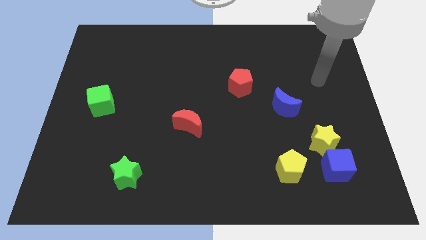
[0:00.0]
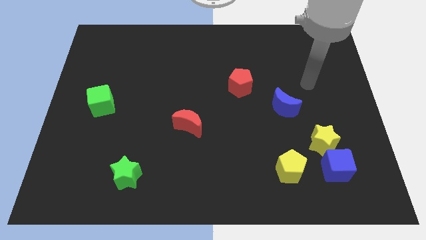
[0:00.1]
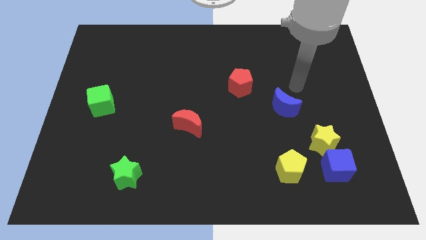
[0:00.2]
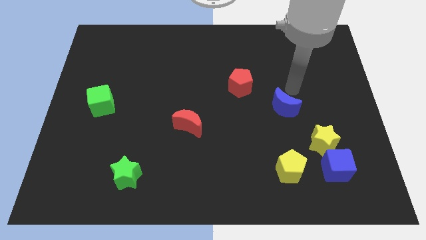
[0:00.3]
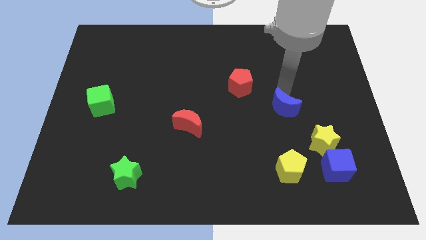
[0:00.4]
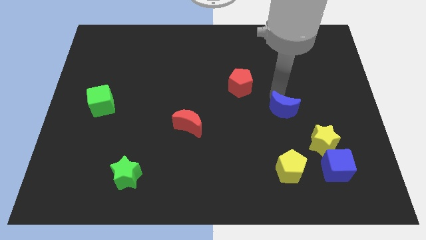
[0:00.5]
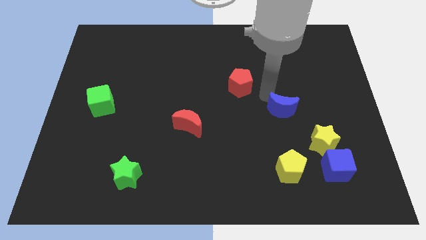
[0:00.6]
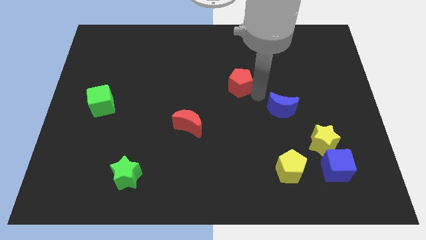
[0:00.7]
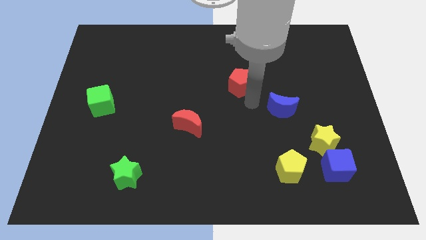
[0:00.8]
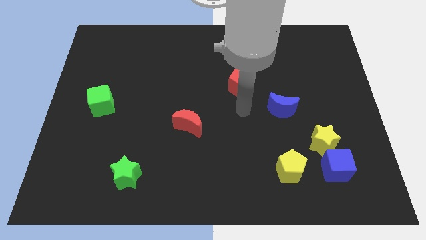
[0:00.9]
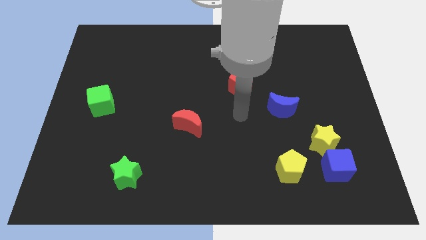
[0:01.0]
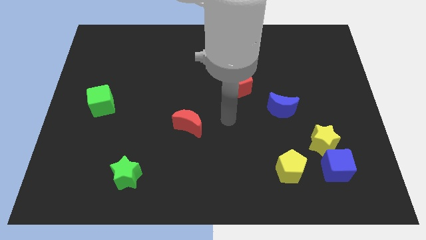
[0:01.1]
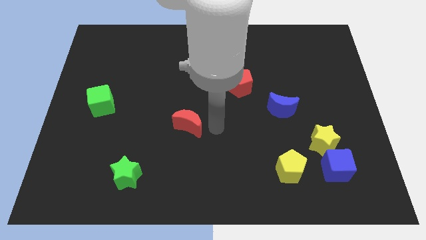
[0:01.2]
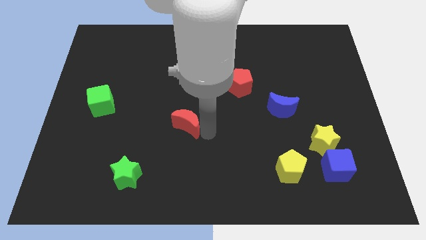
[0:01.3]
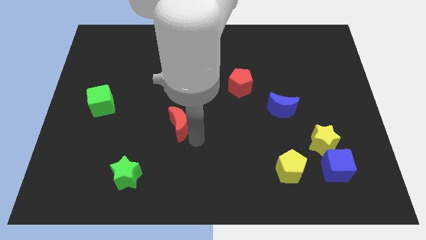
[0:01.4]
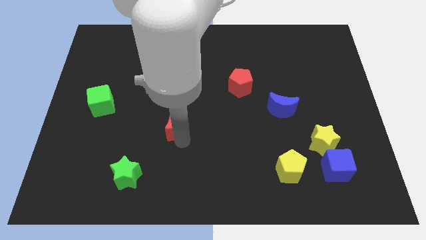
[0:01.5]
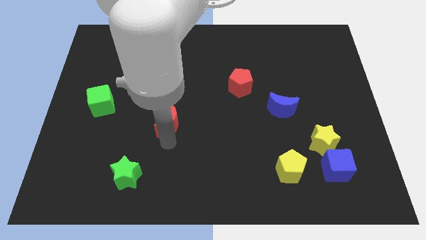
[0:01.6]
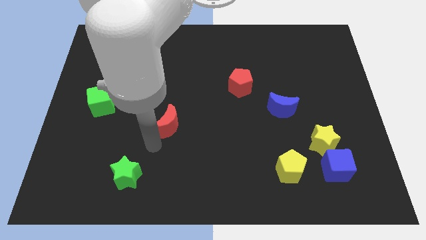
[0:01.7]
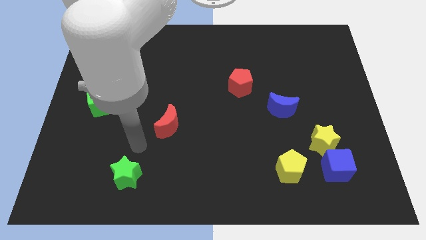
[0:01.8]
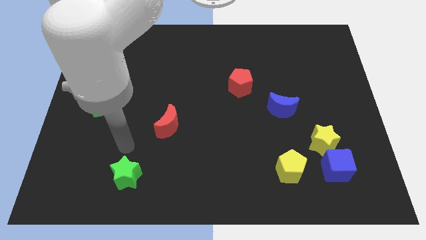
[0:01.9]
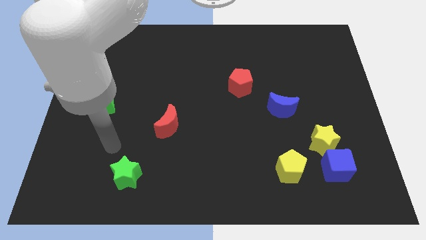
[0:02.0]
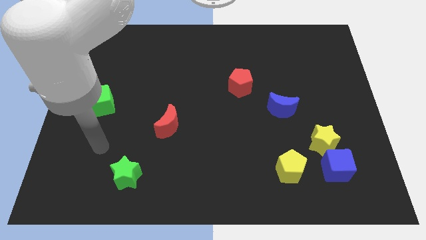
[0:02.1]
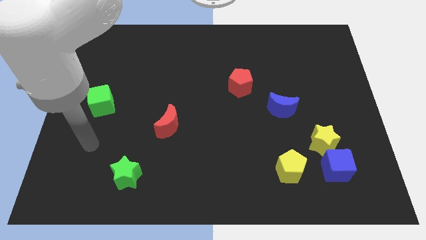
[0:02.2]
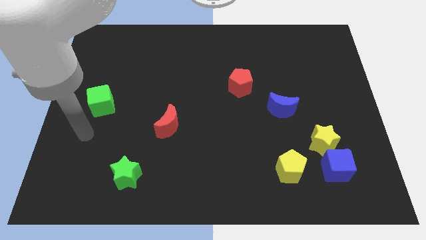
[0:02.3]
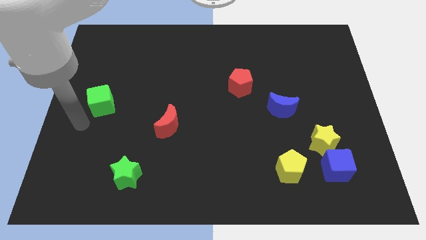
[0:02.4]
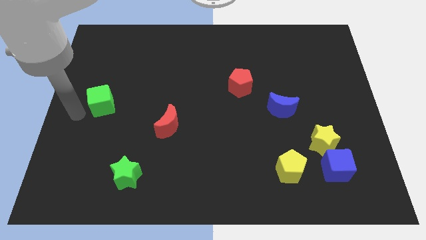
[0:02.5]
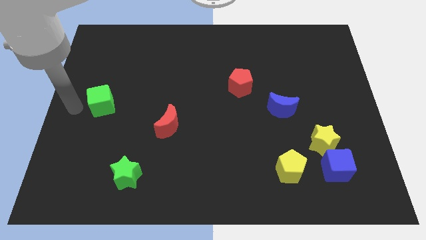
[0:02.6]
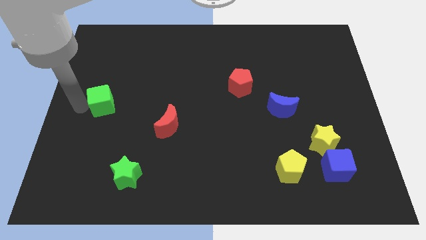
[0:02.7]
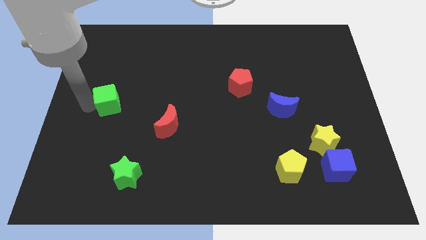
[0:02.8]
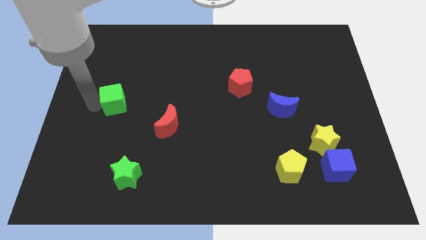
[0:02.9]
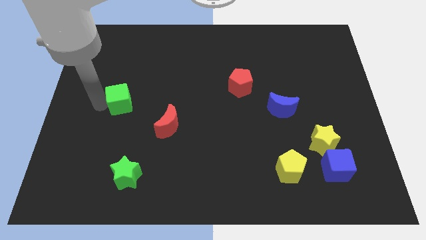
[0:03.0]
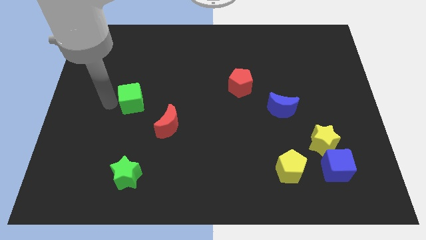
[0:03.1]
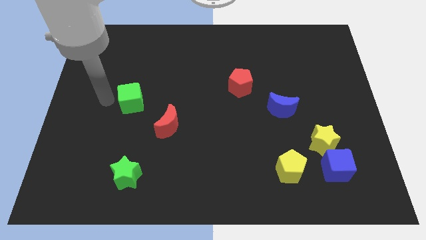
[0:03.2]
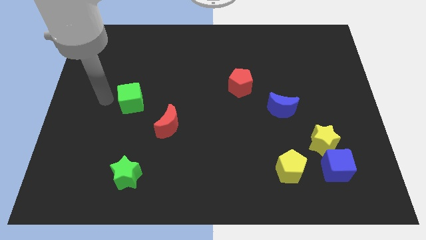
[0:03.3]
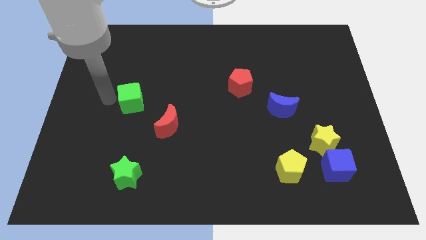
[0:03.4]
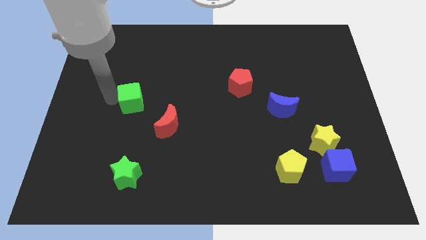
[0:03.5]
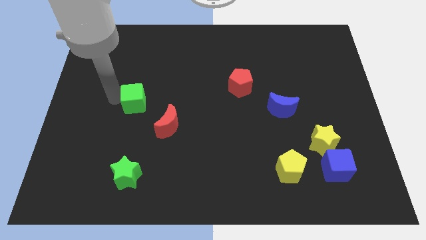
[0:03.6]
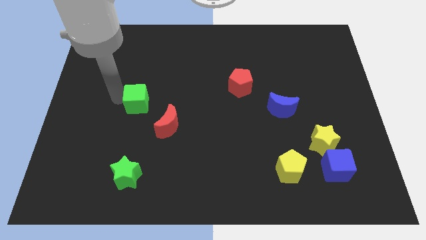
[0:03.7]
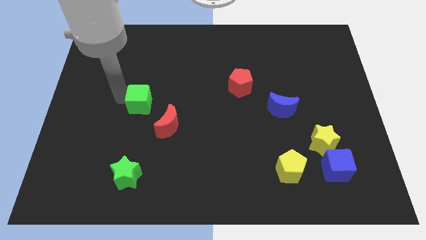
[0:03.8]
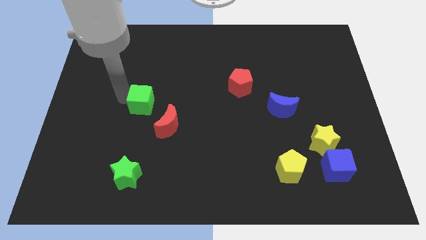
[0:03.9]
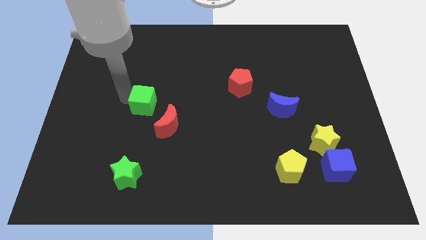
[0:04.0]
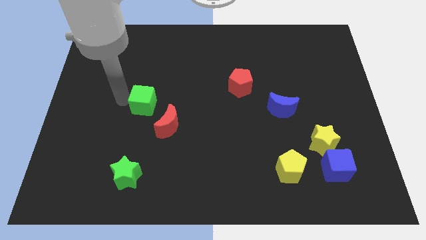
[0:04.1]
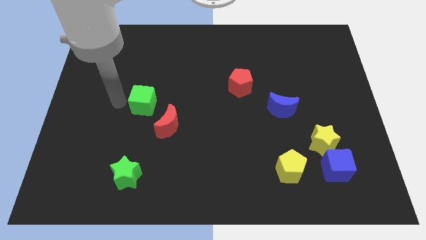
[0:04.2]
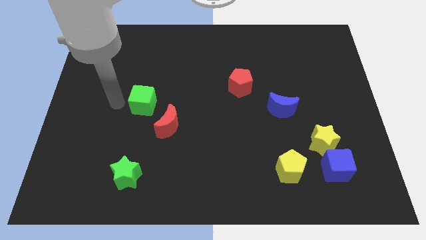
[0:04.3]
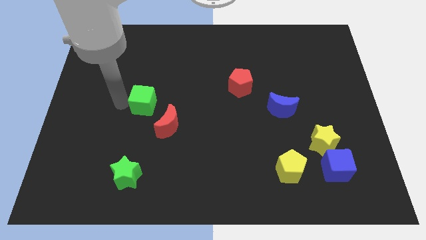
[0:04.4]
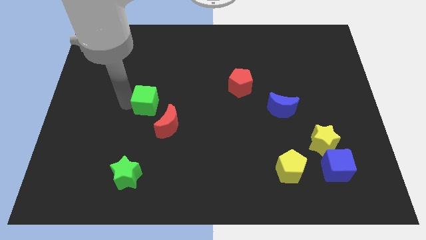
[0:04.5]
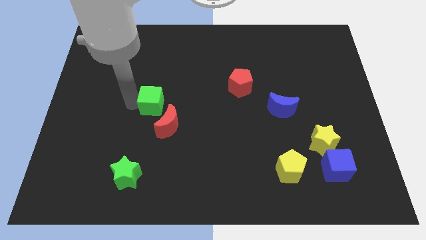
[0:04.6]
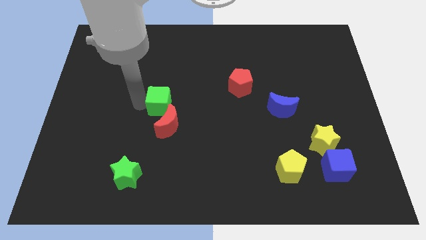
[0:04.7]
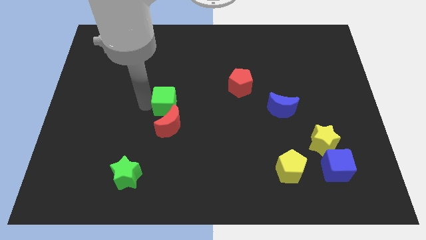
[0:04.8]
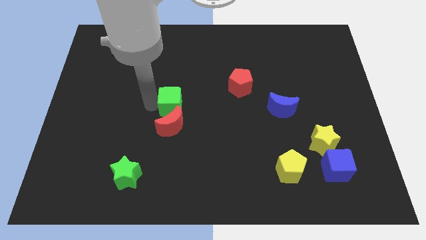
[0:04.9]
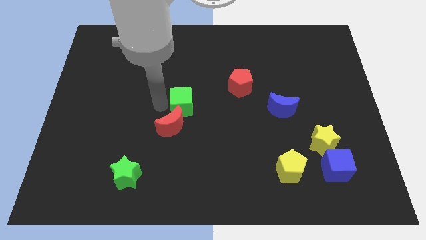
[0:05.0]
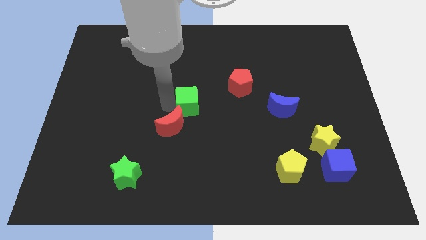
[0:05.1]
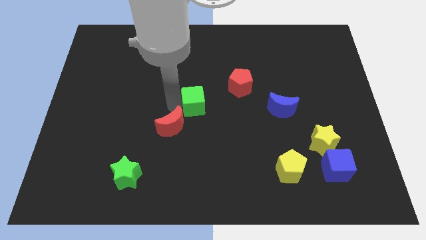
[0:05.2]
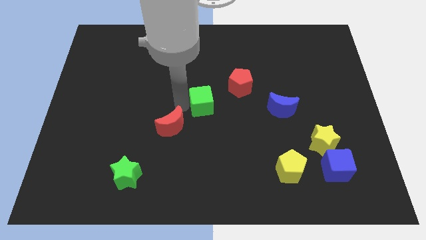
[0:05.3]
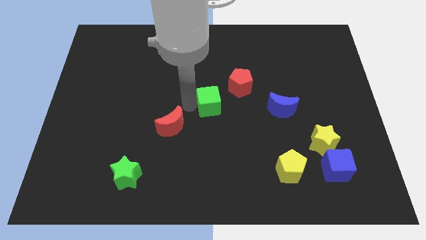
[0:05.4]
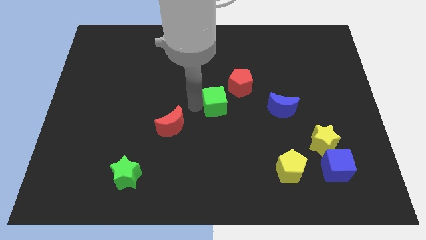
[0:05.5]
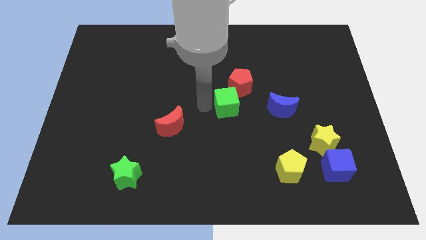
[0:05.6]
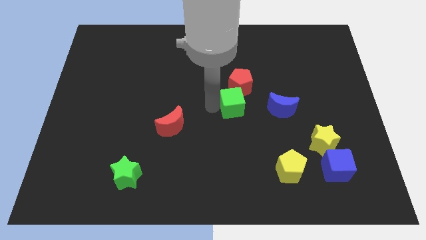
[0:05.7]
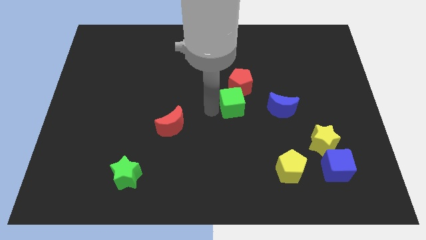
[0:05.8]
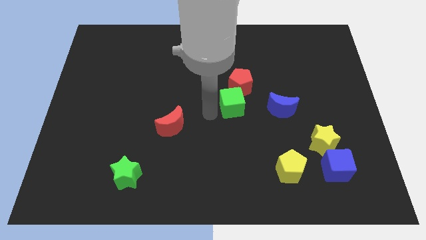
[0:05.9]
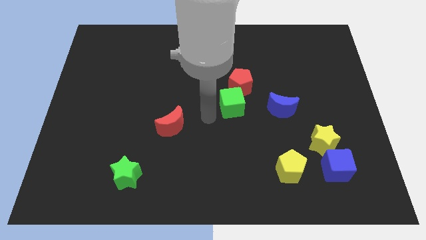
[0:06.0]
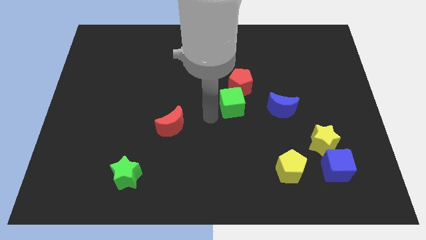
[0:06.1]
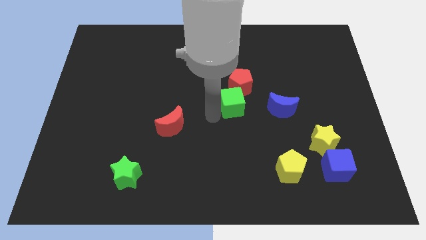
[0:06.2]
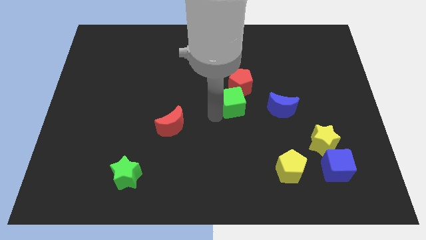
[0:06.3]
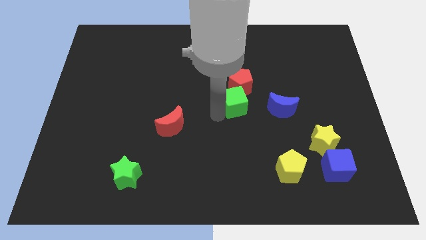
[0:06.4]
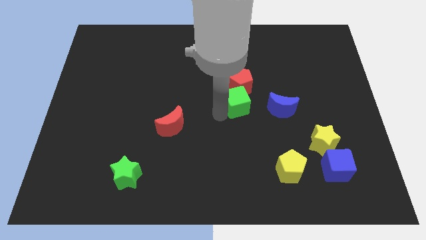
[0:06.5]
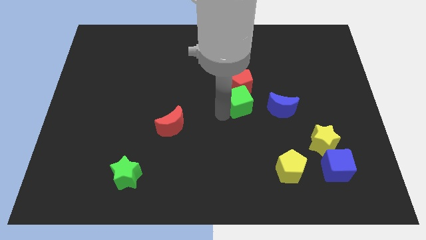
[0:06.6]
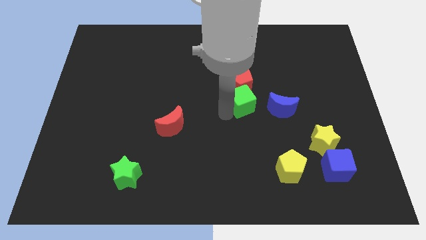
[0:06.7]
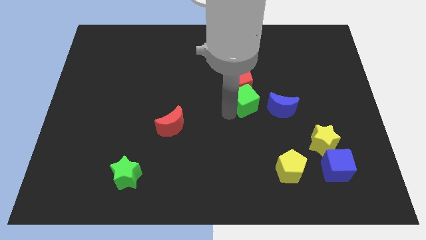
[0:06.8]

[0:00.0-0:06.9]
put the green cube to the top left of the blue moon
